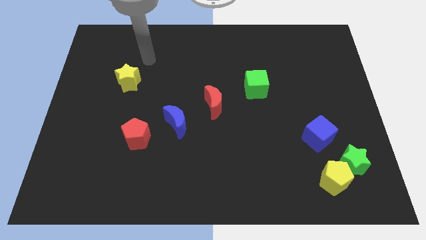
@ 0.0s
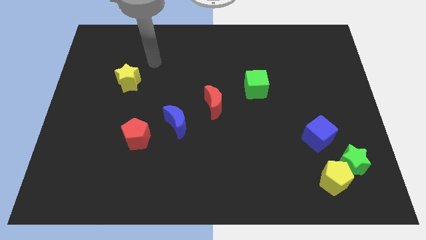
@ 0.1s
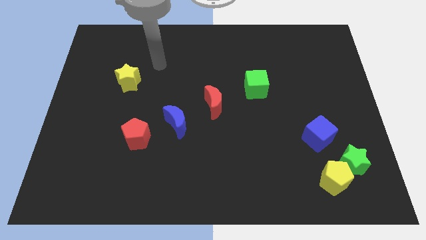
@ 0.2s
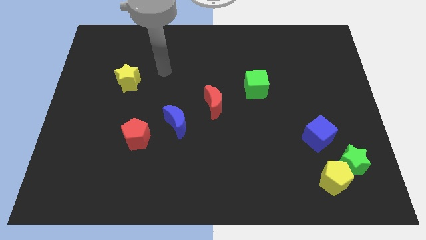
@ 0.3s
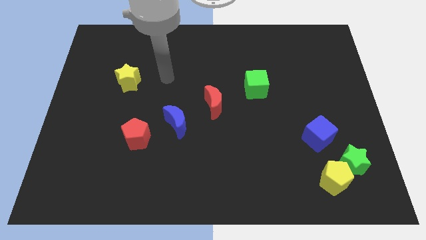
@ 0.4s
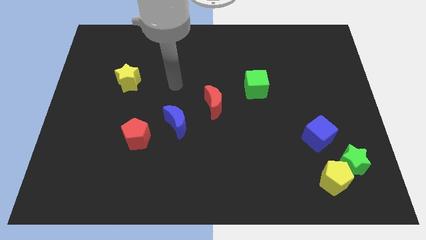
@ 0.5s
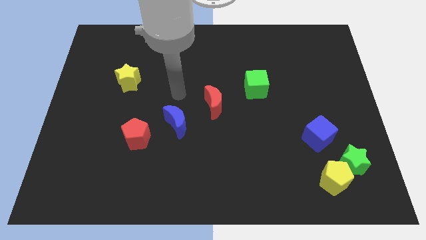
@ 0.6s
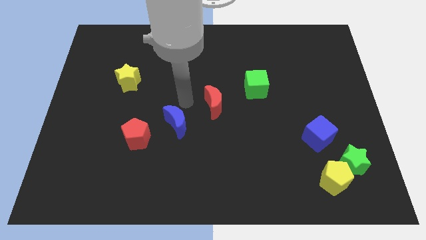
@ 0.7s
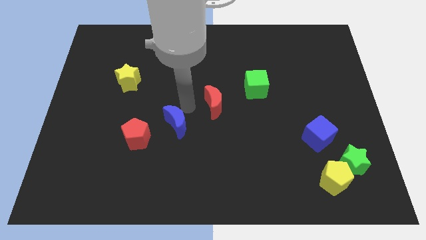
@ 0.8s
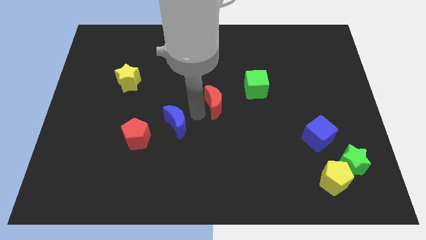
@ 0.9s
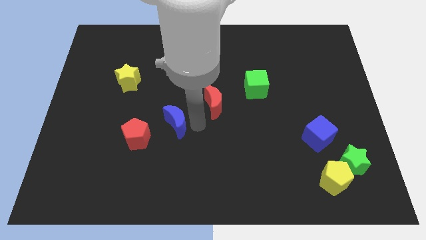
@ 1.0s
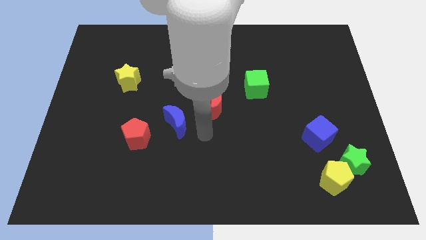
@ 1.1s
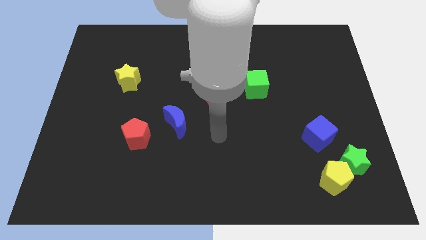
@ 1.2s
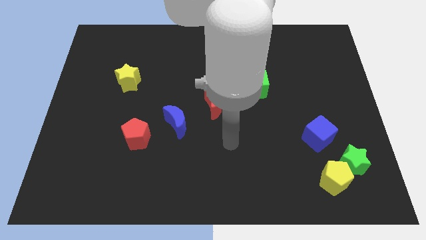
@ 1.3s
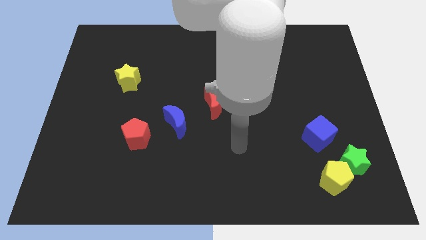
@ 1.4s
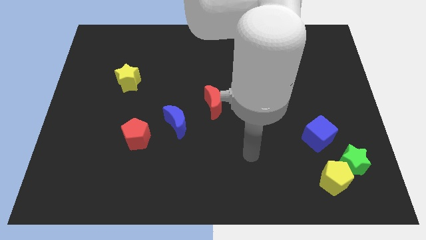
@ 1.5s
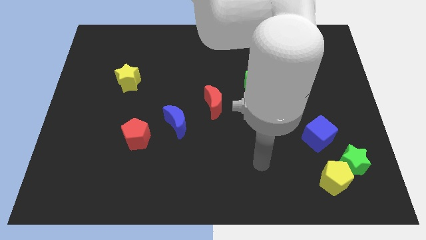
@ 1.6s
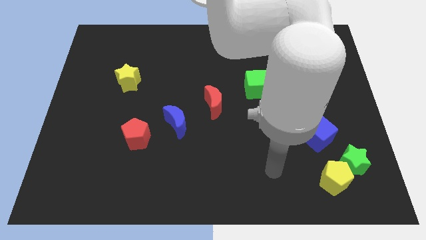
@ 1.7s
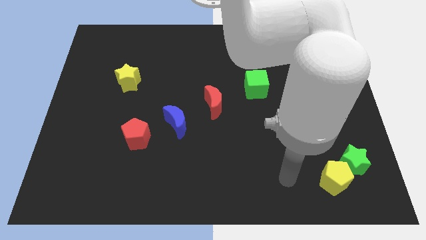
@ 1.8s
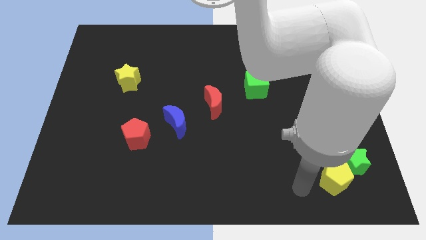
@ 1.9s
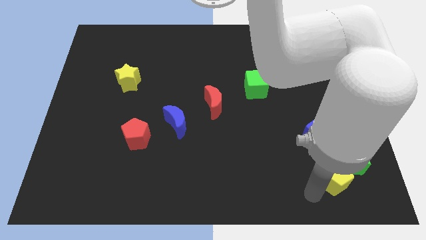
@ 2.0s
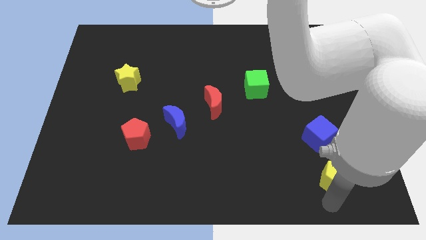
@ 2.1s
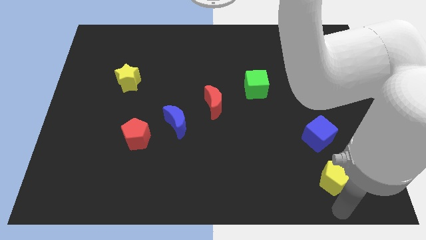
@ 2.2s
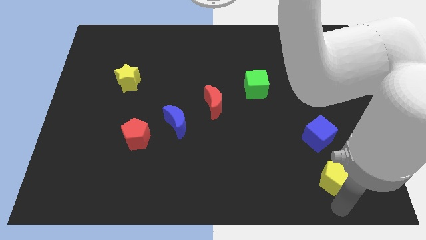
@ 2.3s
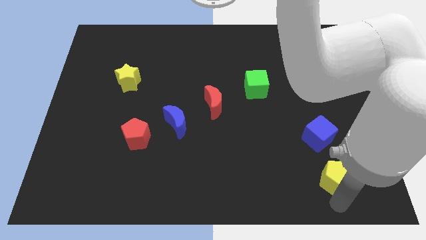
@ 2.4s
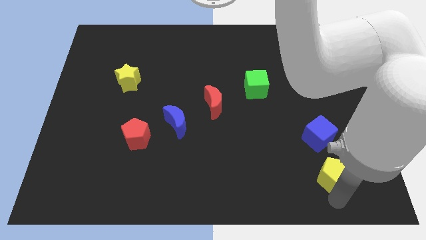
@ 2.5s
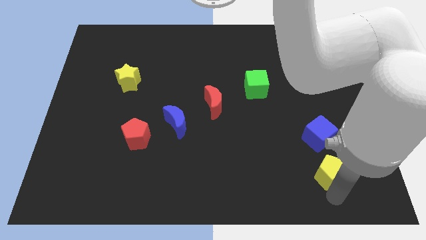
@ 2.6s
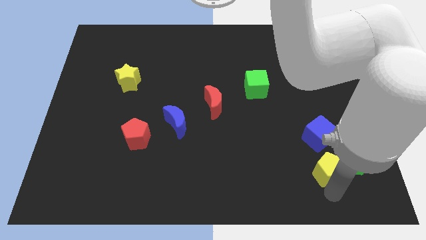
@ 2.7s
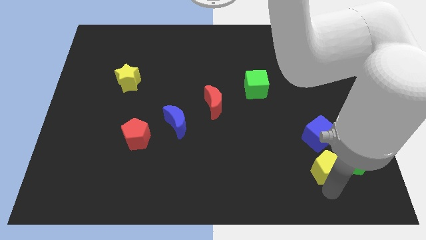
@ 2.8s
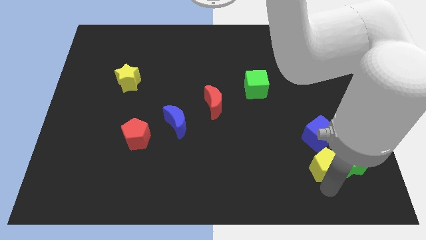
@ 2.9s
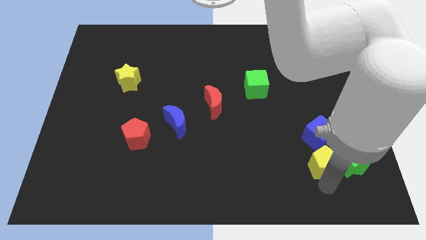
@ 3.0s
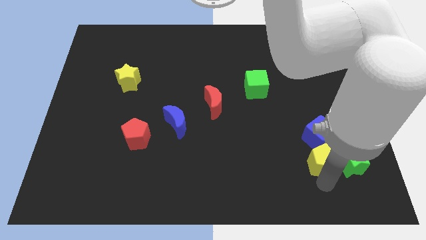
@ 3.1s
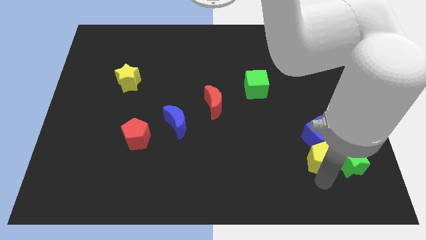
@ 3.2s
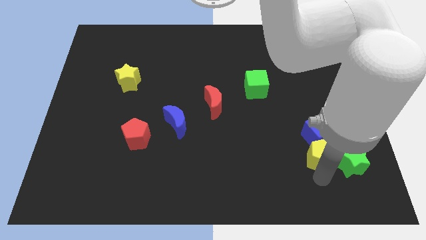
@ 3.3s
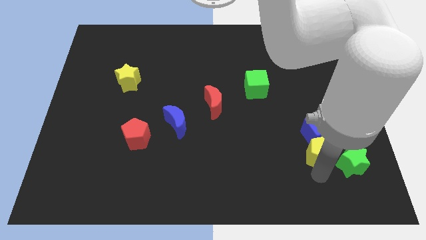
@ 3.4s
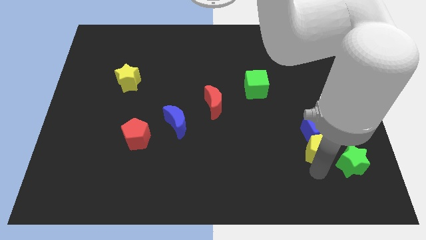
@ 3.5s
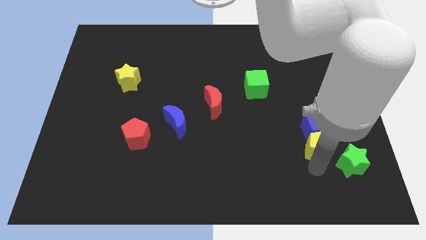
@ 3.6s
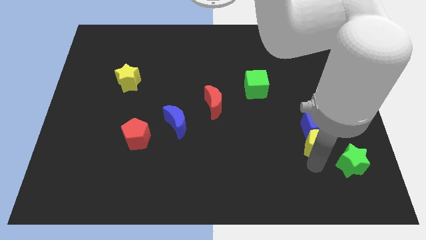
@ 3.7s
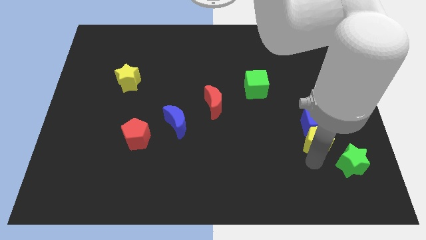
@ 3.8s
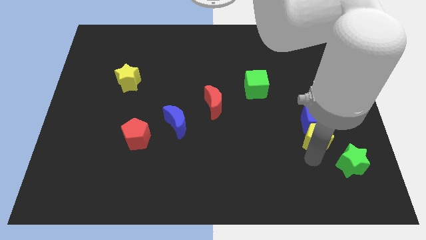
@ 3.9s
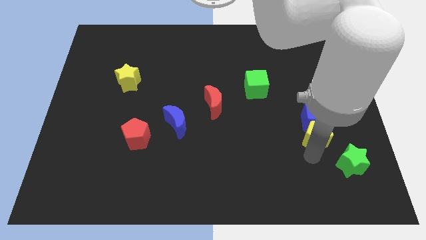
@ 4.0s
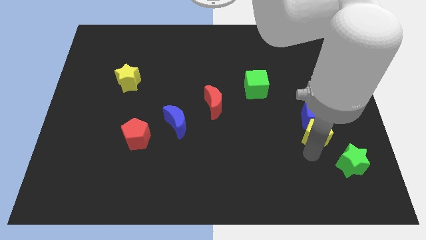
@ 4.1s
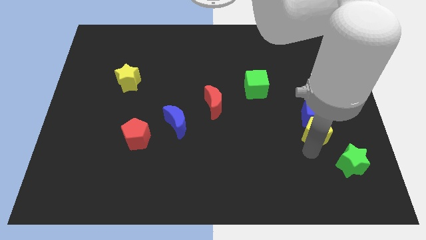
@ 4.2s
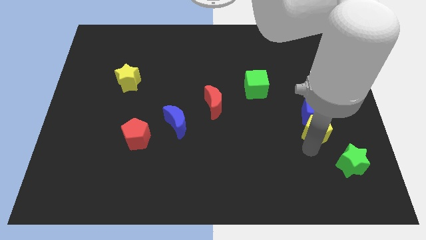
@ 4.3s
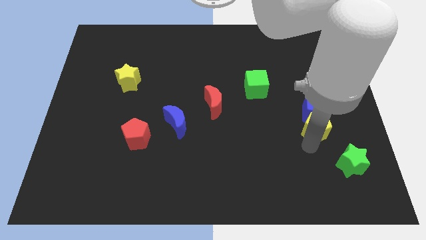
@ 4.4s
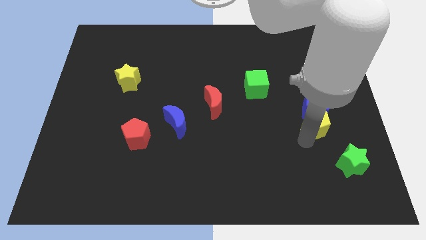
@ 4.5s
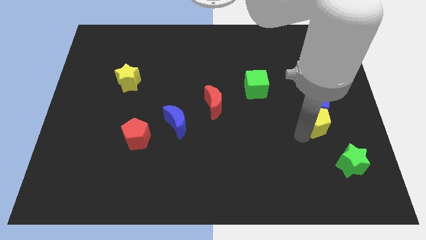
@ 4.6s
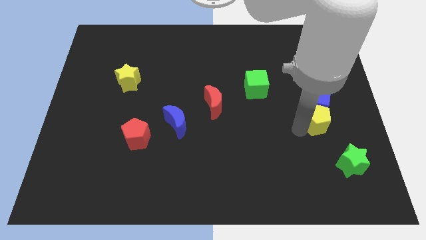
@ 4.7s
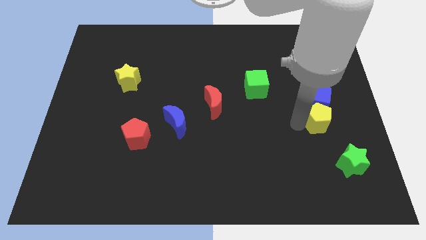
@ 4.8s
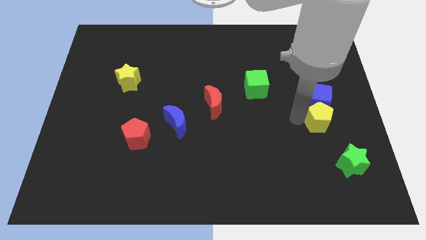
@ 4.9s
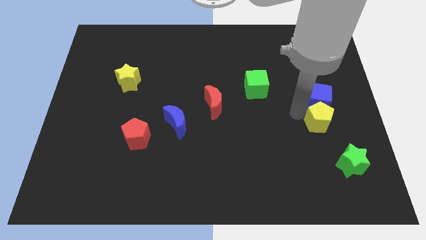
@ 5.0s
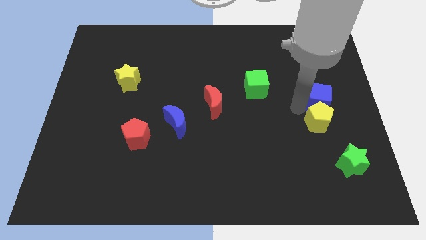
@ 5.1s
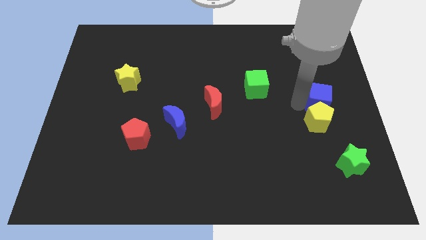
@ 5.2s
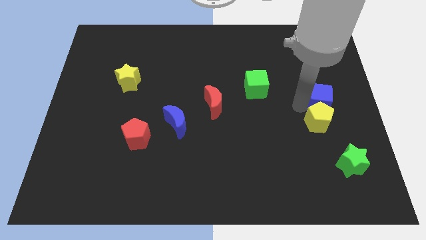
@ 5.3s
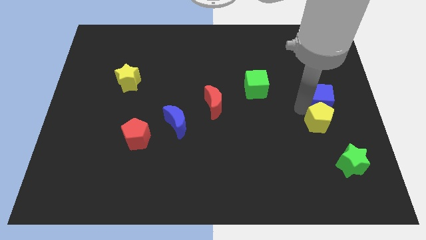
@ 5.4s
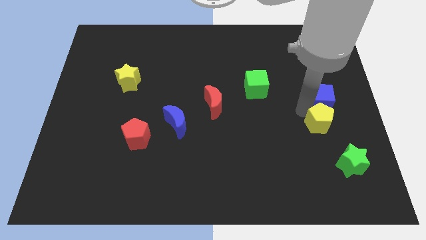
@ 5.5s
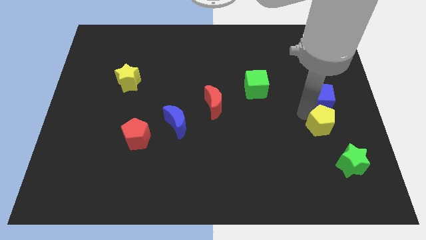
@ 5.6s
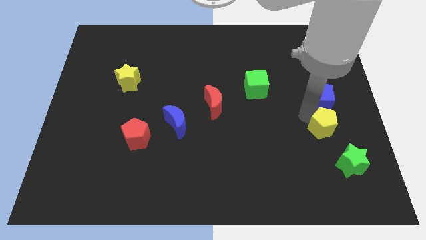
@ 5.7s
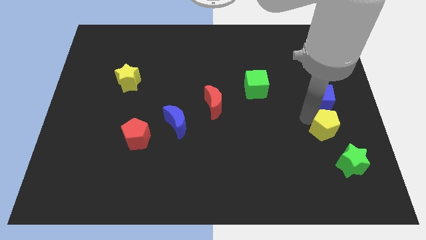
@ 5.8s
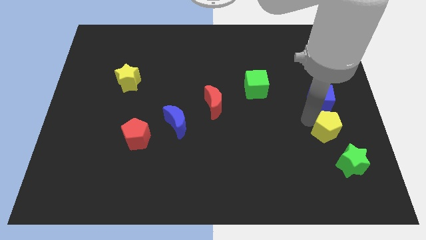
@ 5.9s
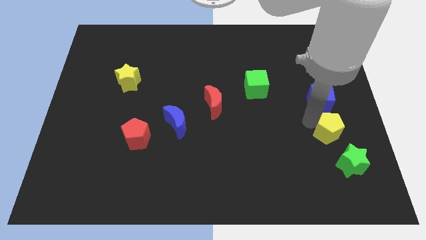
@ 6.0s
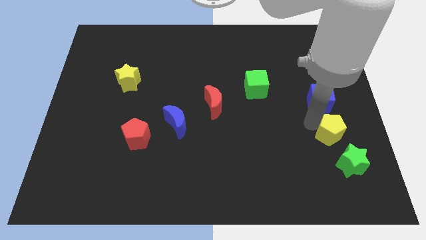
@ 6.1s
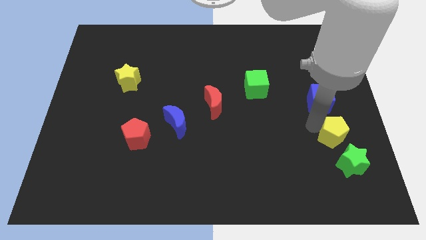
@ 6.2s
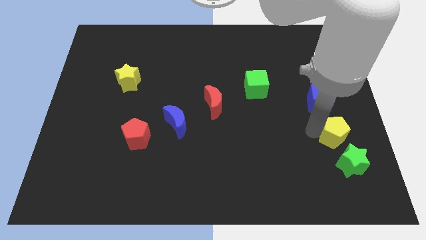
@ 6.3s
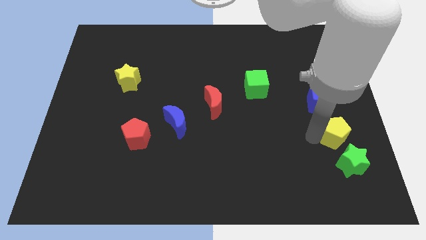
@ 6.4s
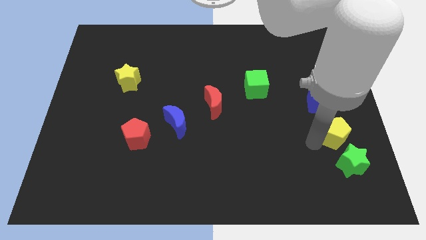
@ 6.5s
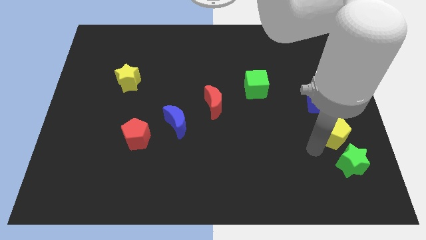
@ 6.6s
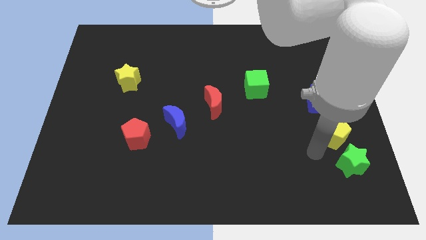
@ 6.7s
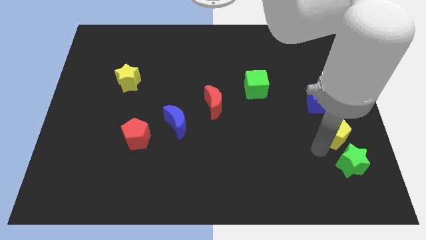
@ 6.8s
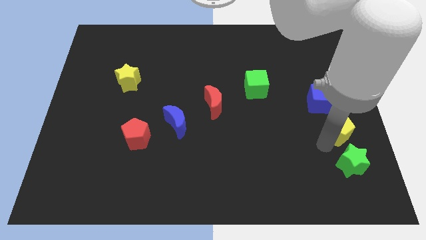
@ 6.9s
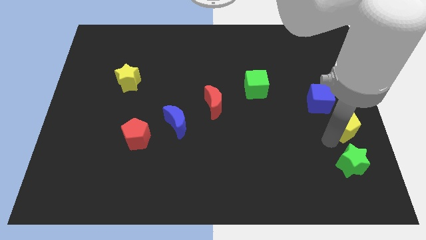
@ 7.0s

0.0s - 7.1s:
put the yellow pentagon to the right side
